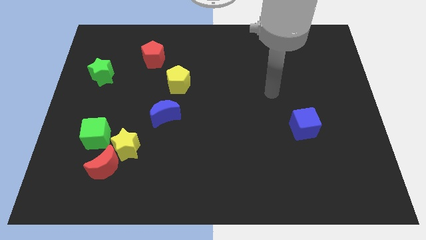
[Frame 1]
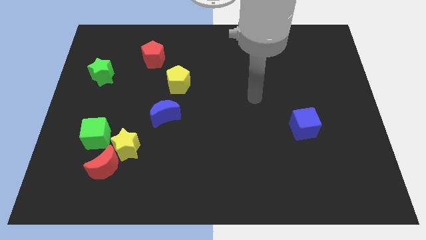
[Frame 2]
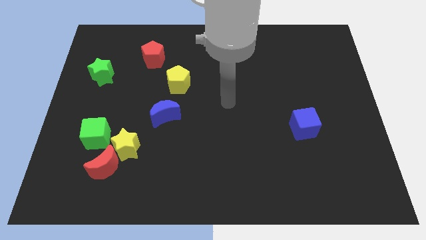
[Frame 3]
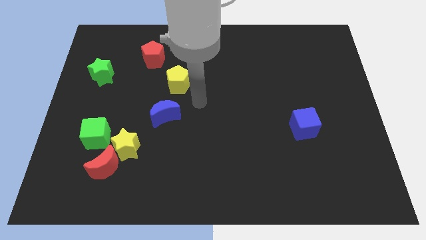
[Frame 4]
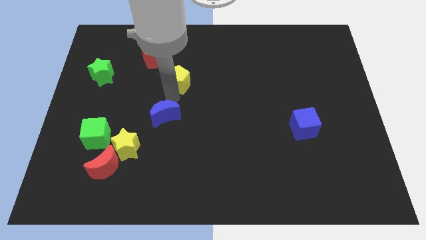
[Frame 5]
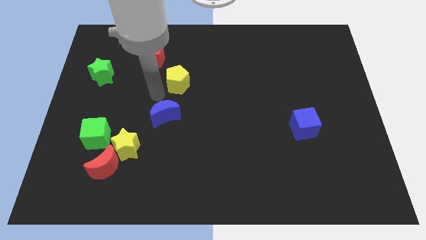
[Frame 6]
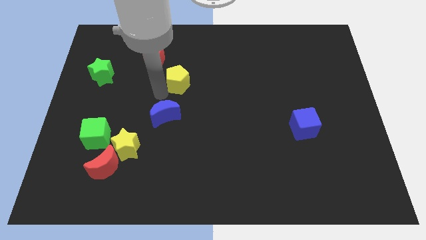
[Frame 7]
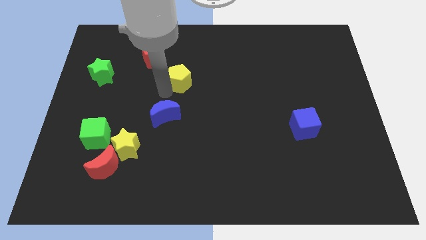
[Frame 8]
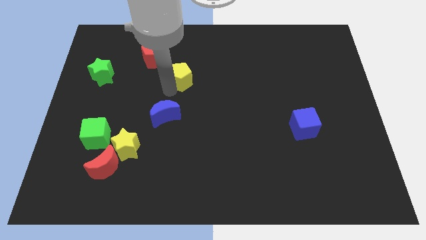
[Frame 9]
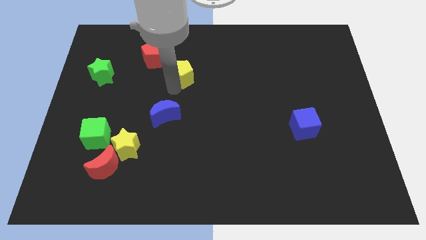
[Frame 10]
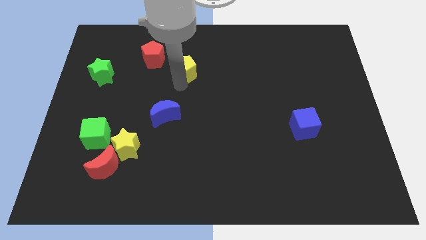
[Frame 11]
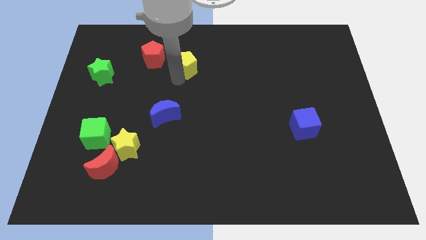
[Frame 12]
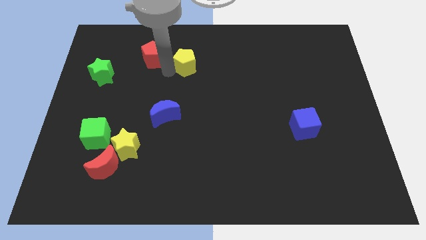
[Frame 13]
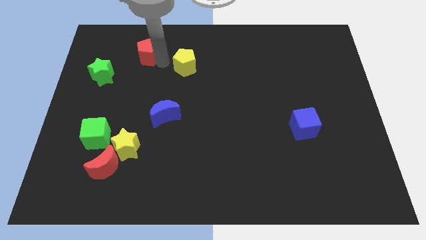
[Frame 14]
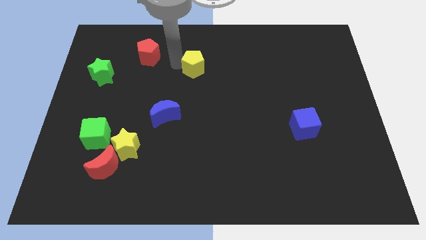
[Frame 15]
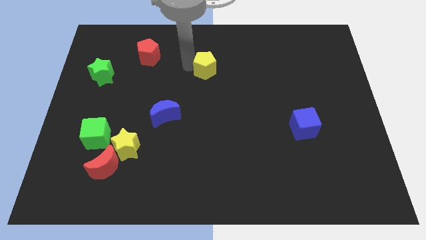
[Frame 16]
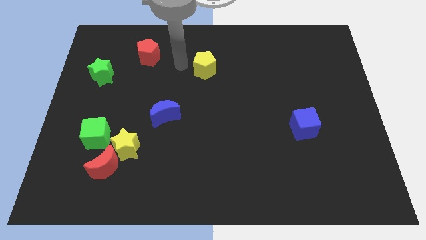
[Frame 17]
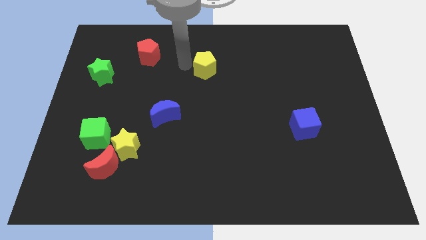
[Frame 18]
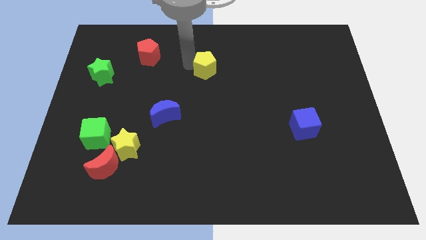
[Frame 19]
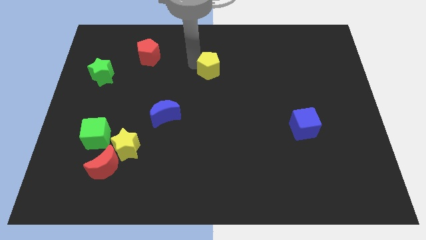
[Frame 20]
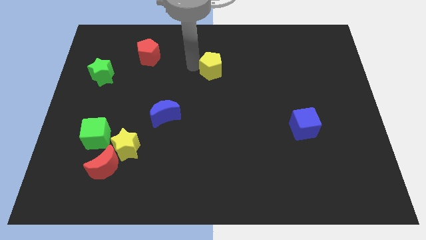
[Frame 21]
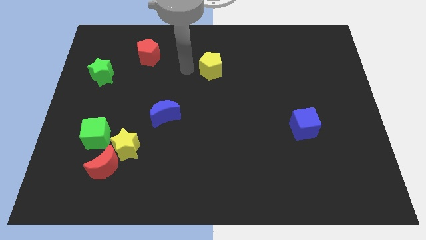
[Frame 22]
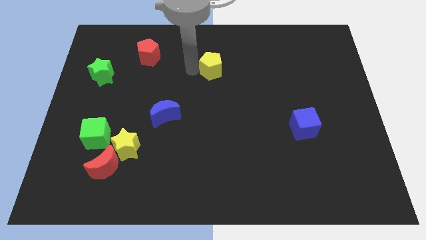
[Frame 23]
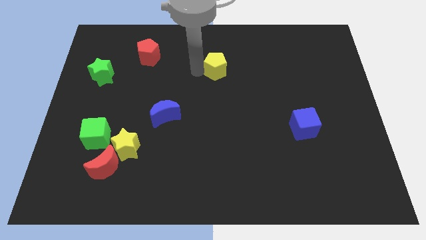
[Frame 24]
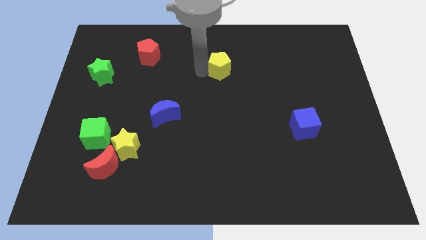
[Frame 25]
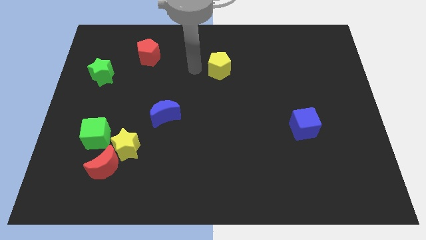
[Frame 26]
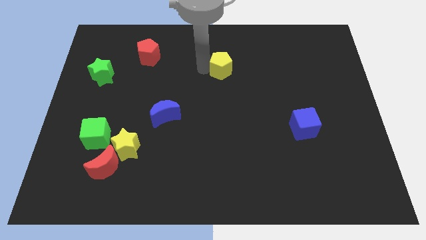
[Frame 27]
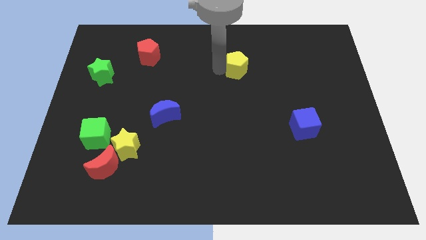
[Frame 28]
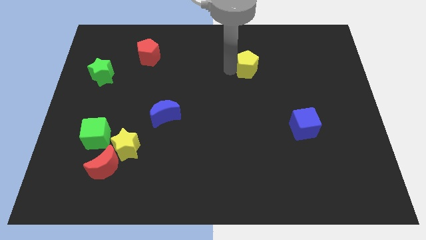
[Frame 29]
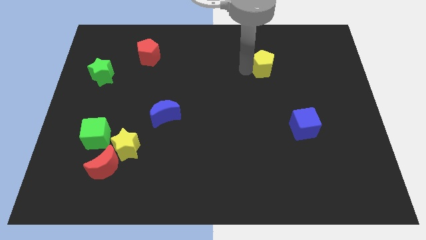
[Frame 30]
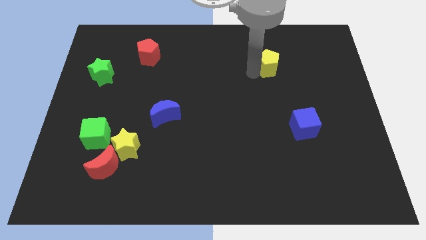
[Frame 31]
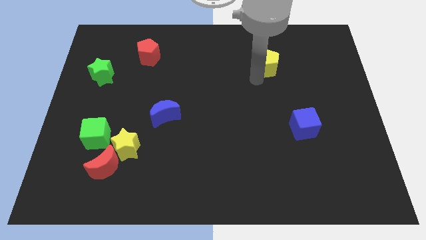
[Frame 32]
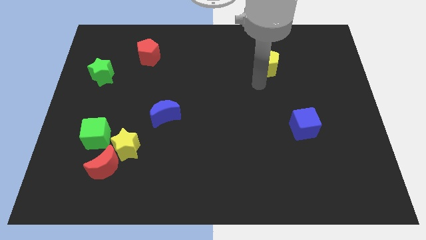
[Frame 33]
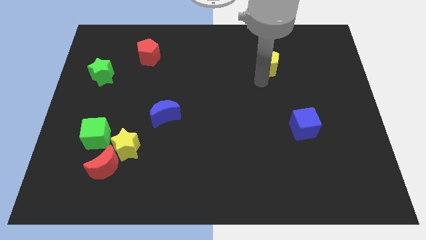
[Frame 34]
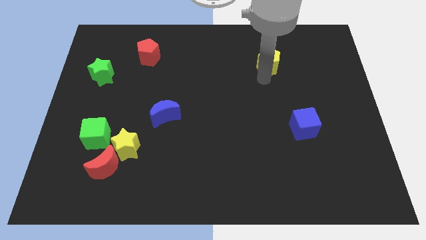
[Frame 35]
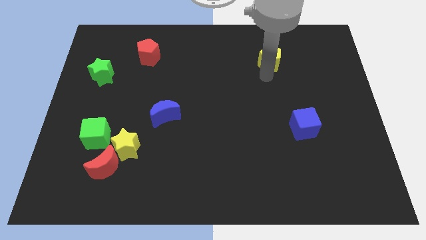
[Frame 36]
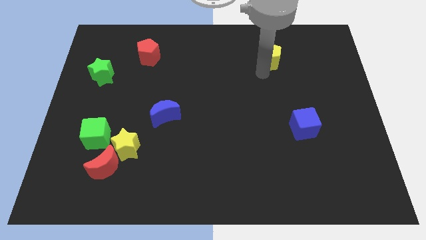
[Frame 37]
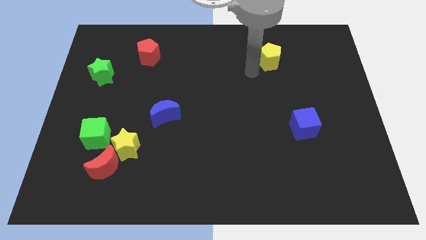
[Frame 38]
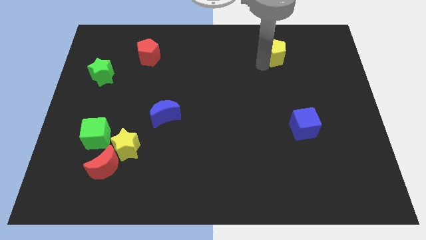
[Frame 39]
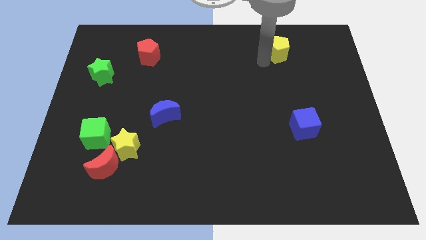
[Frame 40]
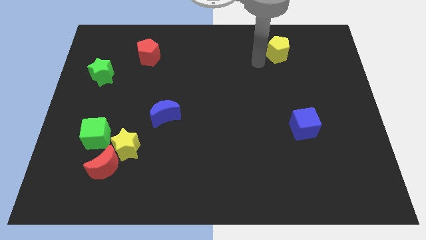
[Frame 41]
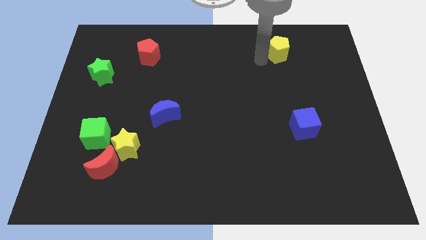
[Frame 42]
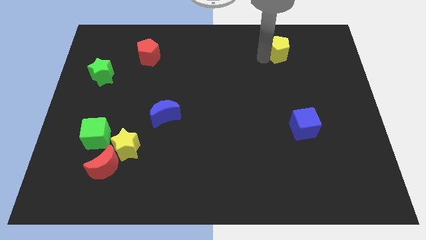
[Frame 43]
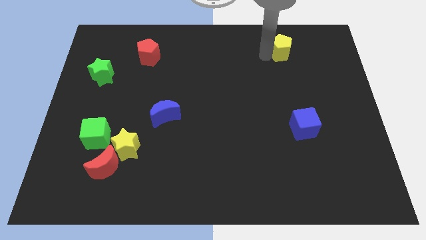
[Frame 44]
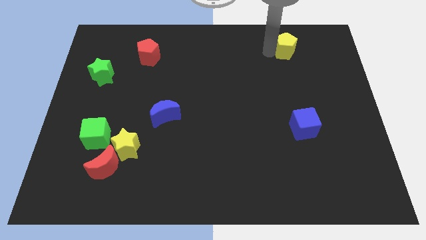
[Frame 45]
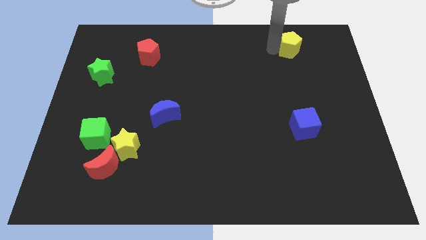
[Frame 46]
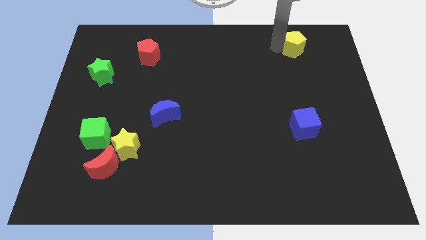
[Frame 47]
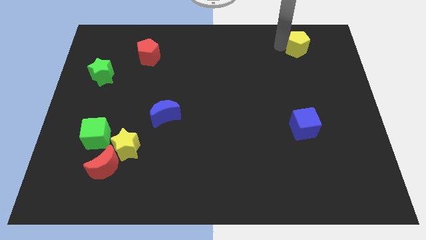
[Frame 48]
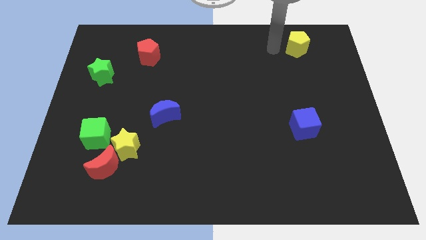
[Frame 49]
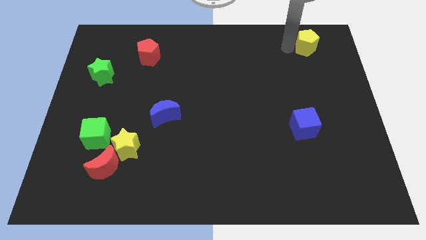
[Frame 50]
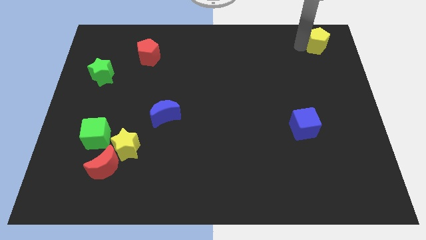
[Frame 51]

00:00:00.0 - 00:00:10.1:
put the yellow pentagon to the top right corner

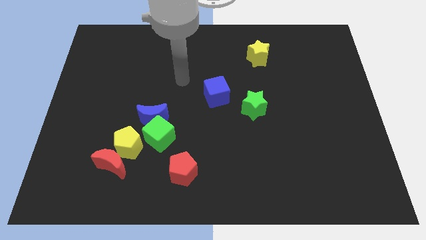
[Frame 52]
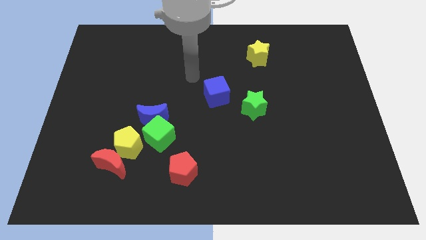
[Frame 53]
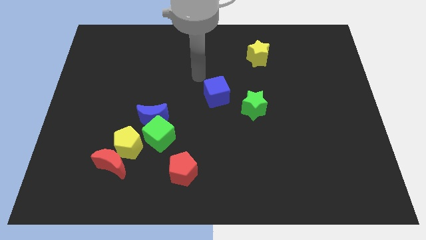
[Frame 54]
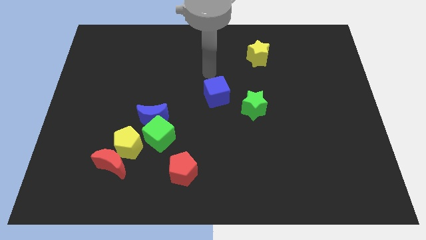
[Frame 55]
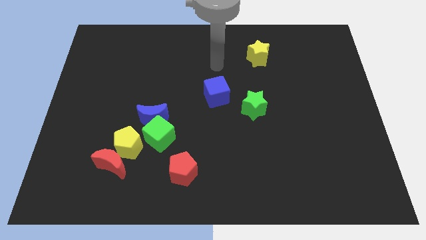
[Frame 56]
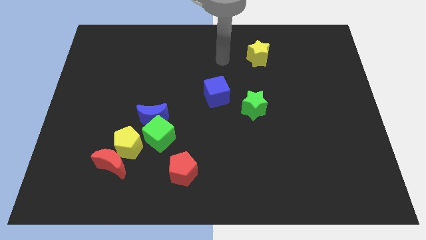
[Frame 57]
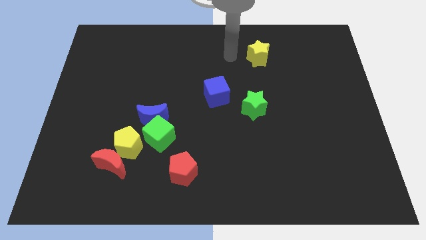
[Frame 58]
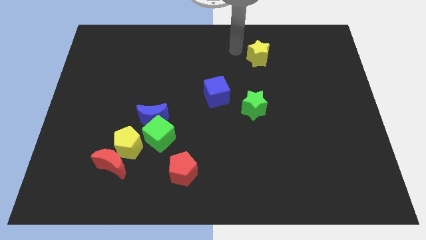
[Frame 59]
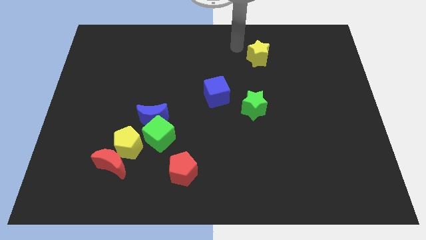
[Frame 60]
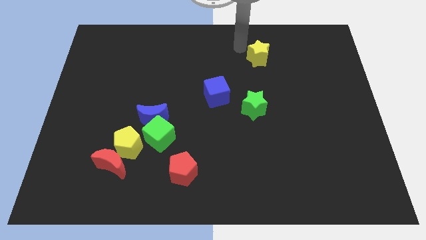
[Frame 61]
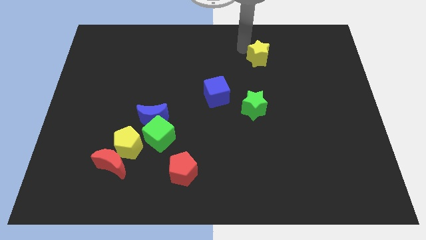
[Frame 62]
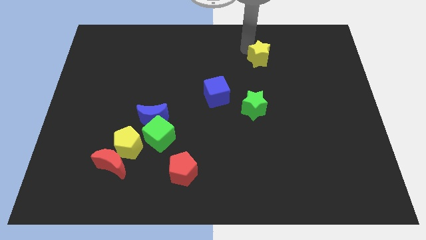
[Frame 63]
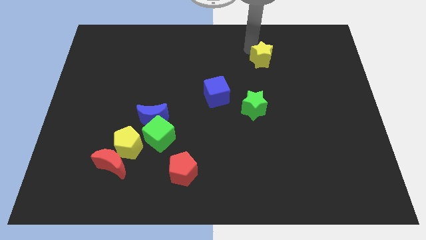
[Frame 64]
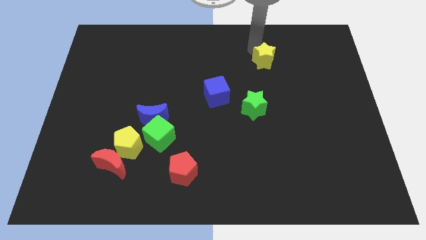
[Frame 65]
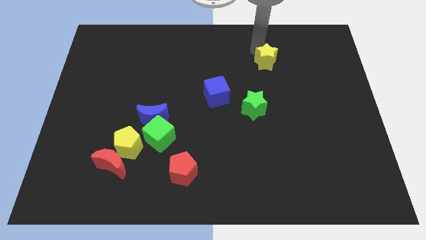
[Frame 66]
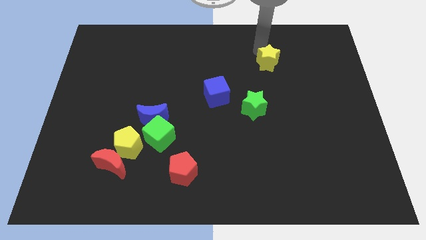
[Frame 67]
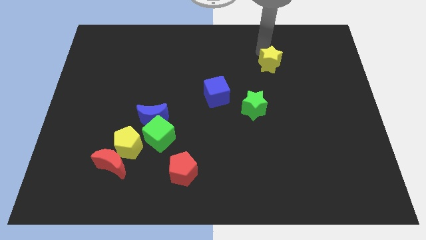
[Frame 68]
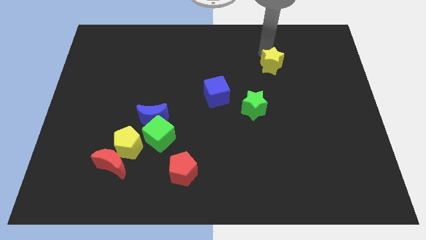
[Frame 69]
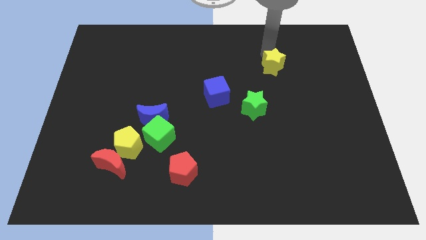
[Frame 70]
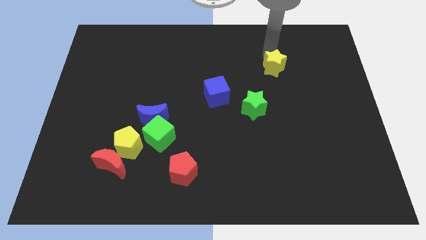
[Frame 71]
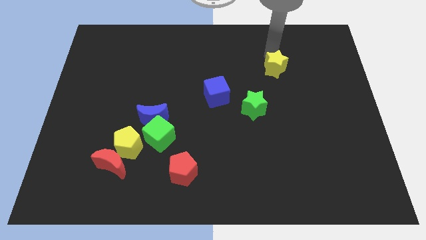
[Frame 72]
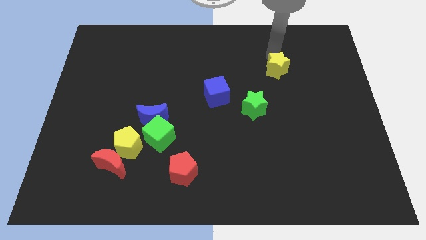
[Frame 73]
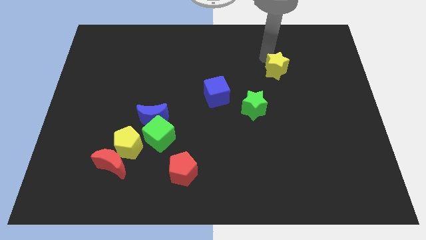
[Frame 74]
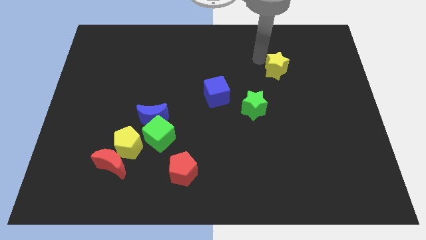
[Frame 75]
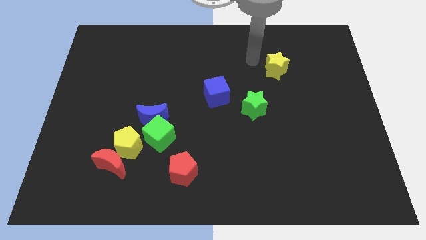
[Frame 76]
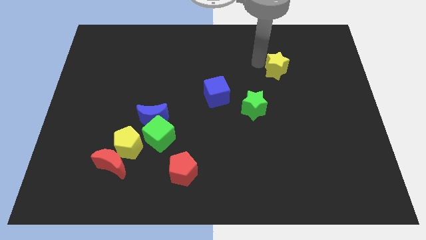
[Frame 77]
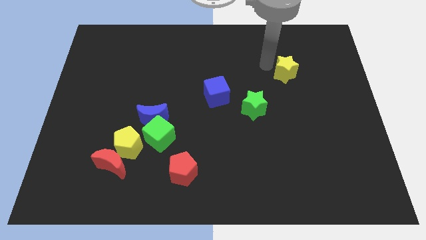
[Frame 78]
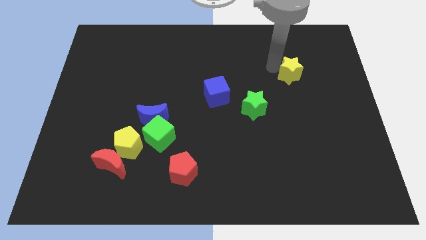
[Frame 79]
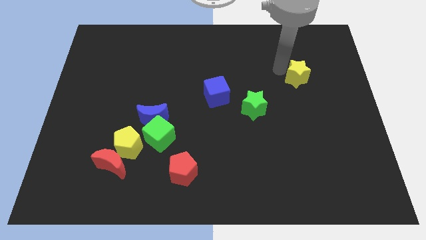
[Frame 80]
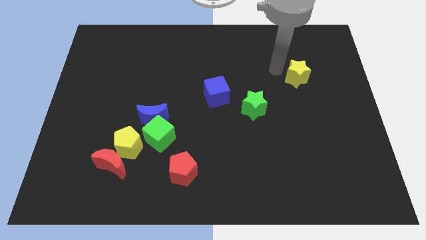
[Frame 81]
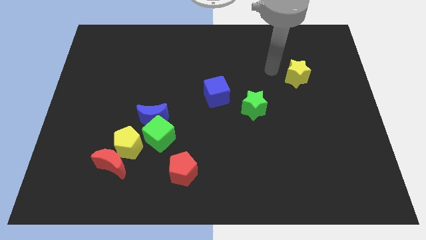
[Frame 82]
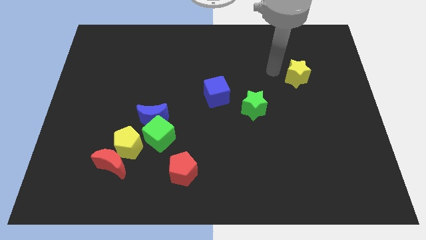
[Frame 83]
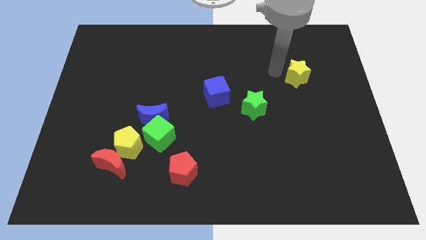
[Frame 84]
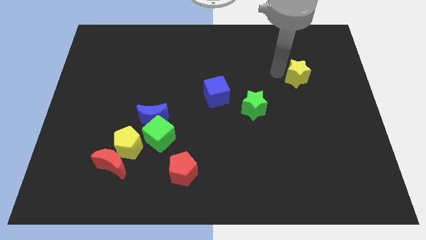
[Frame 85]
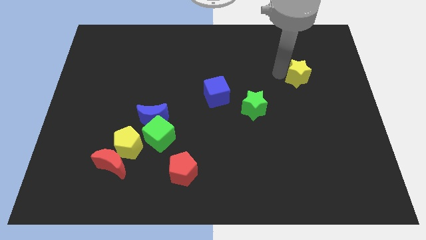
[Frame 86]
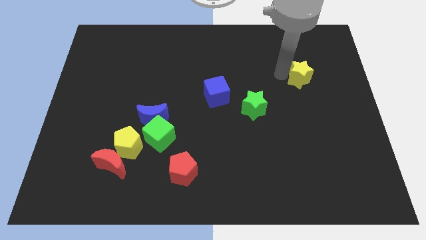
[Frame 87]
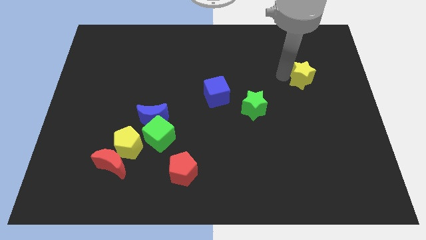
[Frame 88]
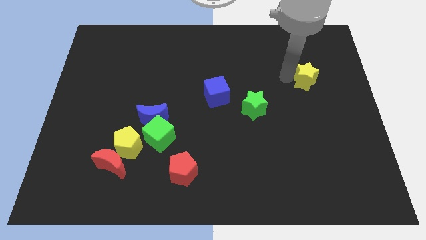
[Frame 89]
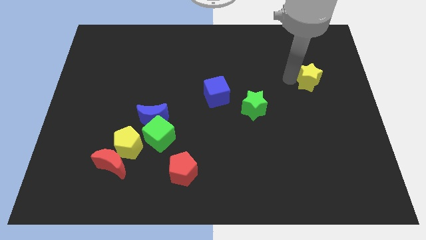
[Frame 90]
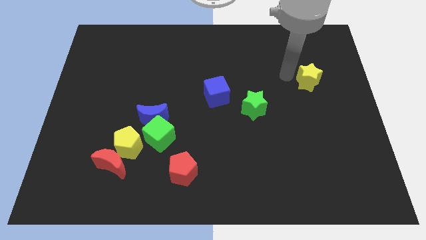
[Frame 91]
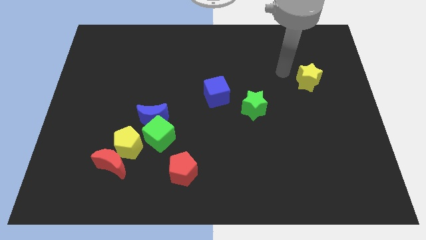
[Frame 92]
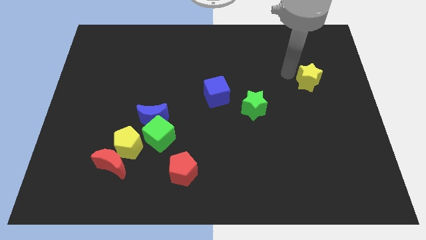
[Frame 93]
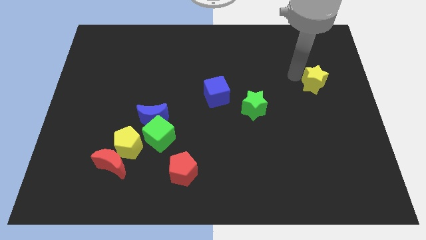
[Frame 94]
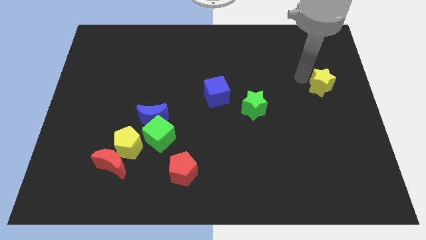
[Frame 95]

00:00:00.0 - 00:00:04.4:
push the yellow star to the center right
